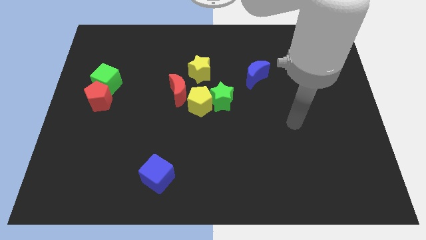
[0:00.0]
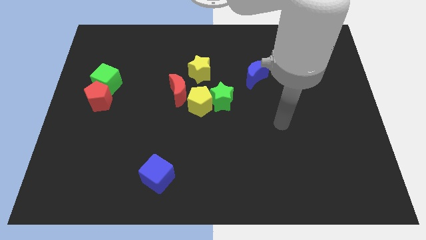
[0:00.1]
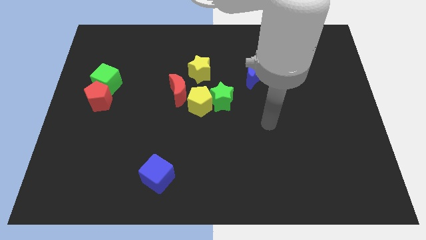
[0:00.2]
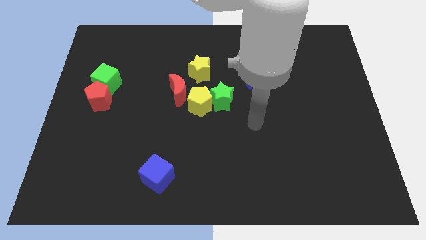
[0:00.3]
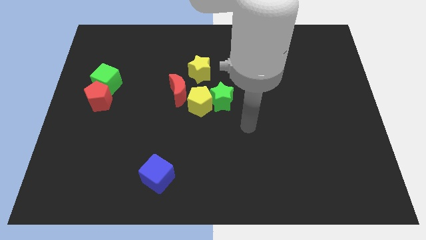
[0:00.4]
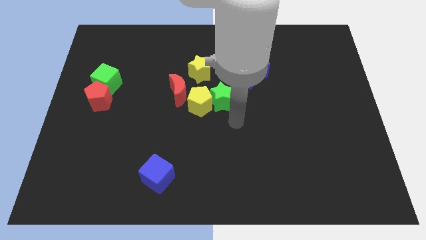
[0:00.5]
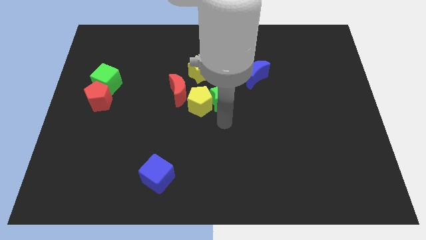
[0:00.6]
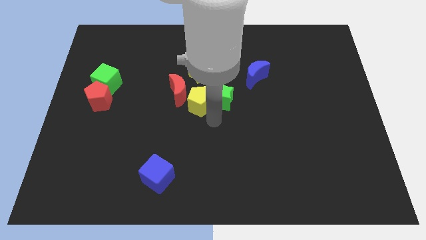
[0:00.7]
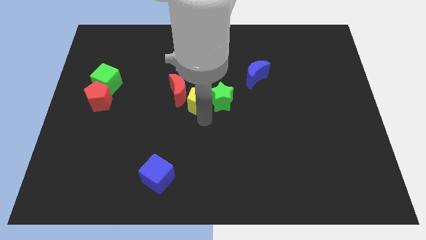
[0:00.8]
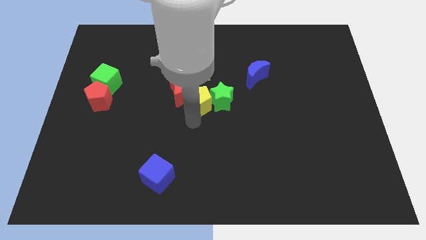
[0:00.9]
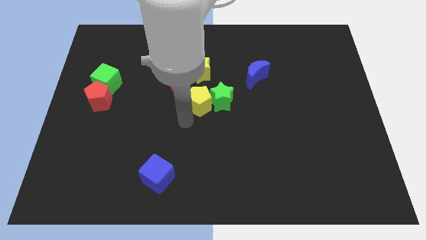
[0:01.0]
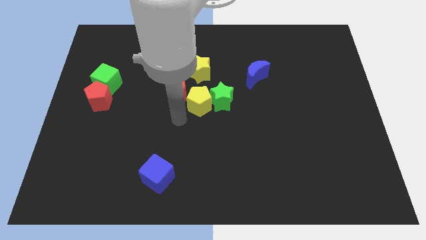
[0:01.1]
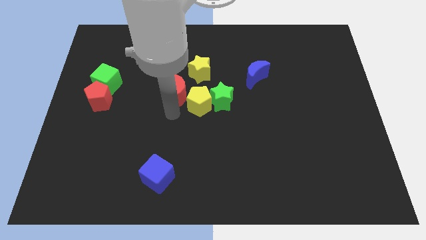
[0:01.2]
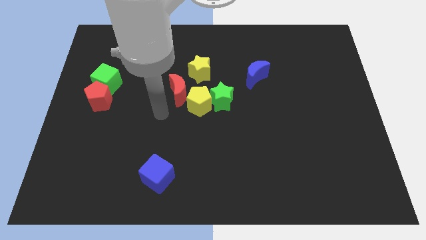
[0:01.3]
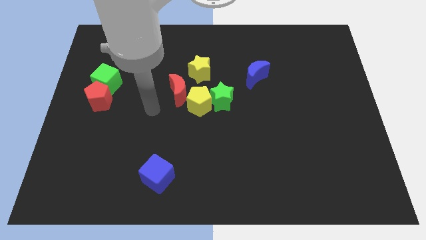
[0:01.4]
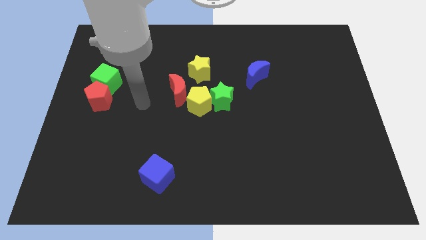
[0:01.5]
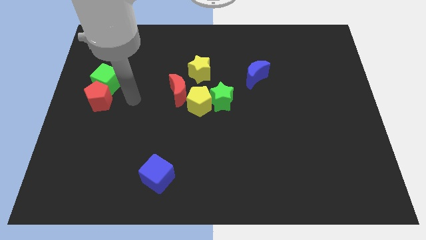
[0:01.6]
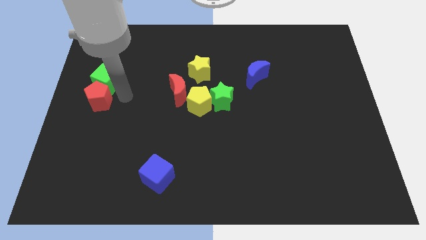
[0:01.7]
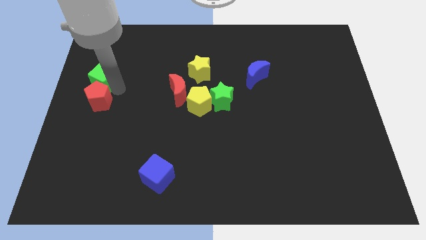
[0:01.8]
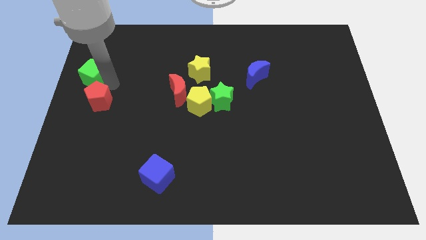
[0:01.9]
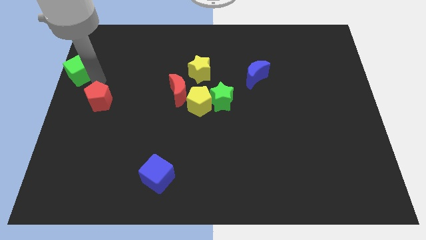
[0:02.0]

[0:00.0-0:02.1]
separate the red pentagon from the green cube

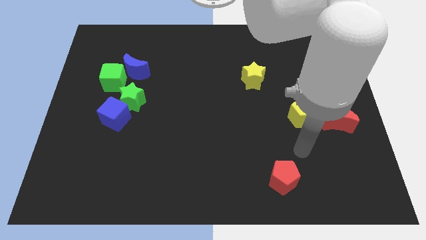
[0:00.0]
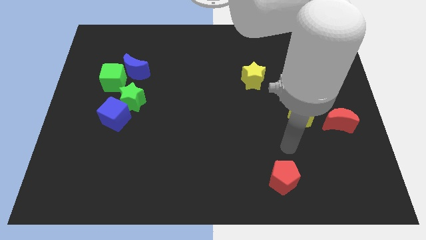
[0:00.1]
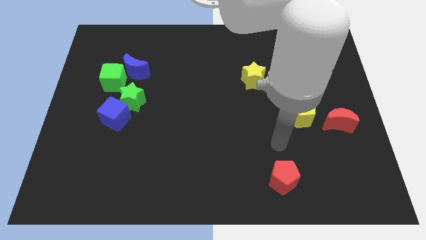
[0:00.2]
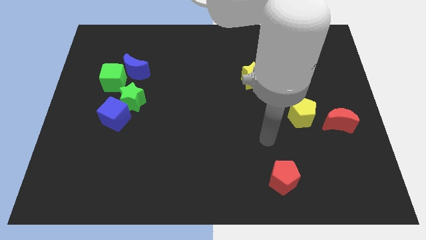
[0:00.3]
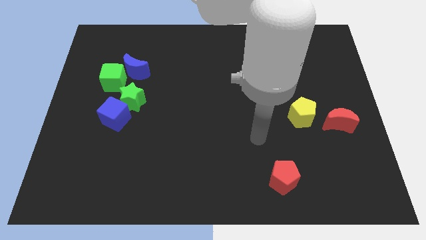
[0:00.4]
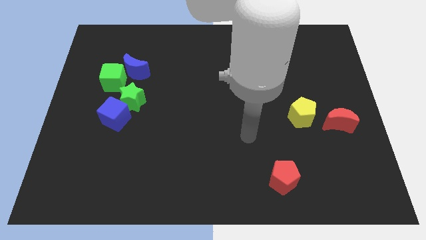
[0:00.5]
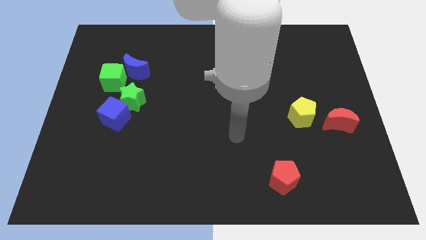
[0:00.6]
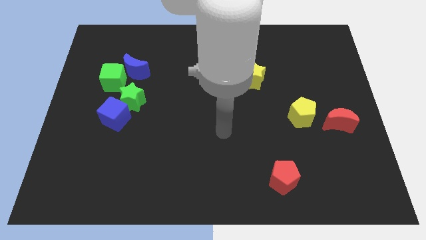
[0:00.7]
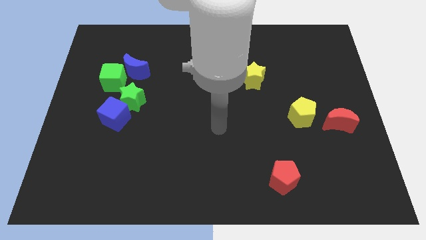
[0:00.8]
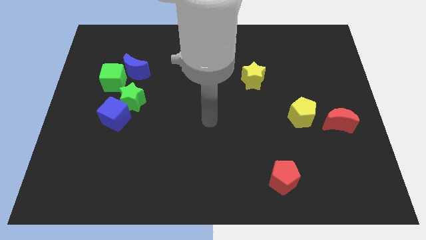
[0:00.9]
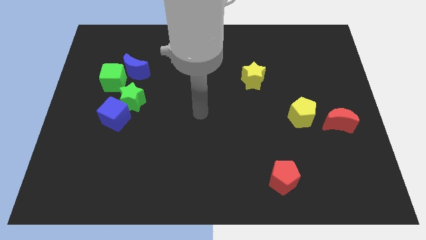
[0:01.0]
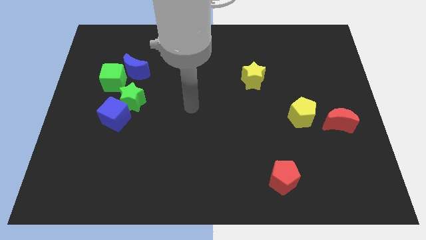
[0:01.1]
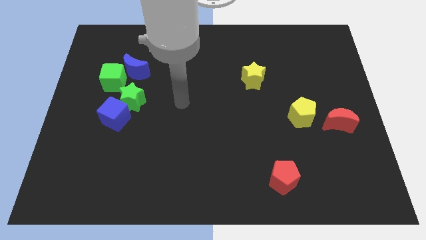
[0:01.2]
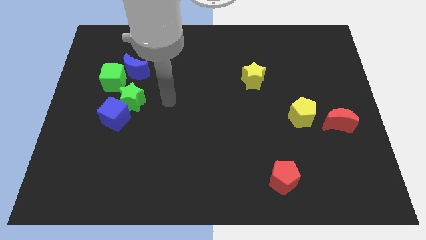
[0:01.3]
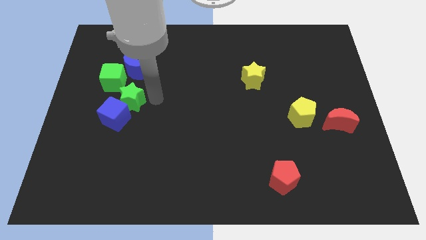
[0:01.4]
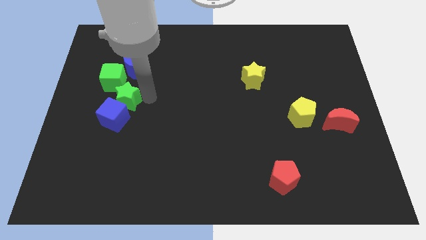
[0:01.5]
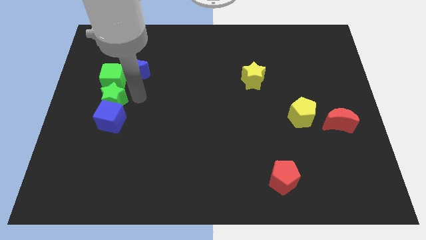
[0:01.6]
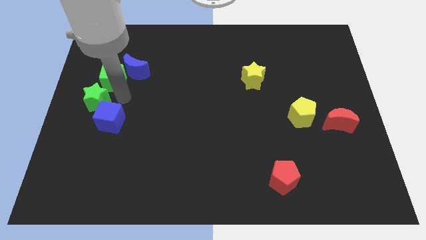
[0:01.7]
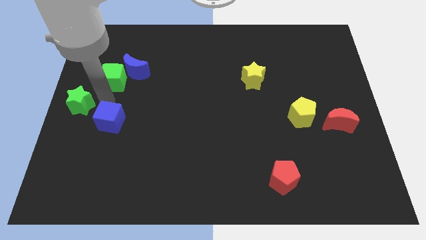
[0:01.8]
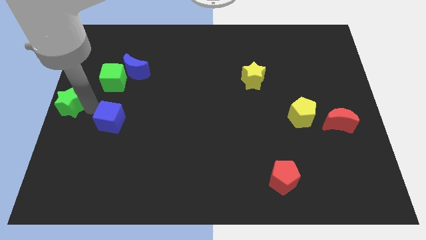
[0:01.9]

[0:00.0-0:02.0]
move the blue cube away from the green star

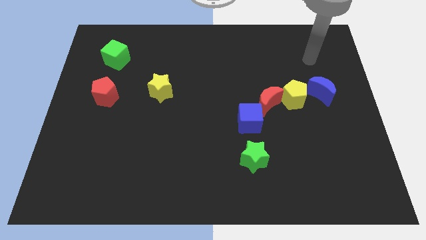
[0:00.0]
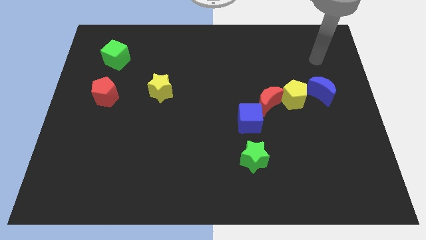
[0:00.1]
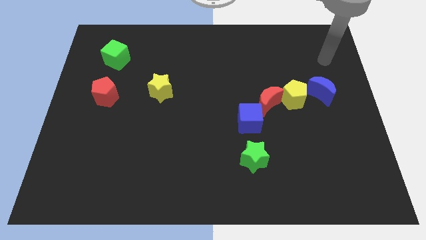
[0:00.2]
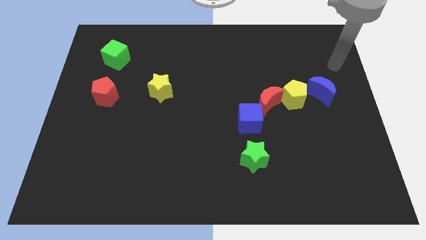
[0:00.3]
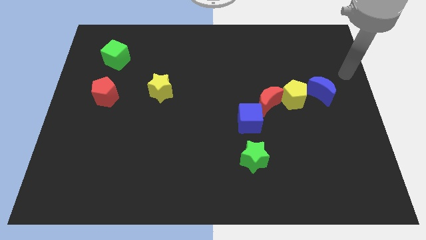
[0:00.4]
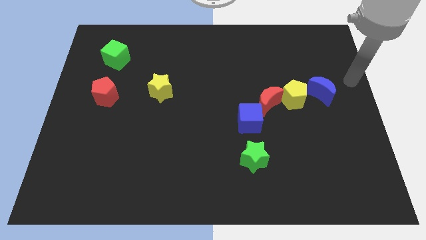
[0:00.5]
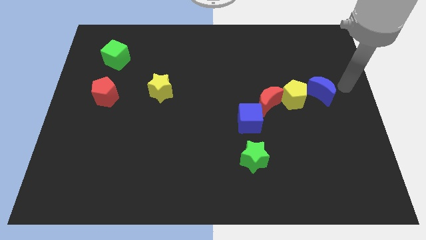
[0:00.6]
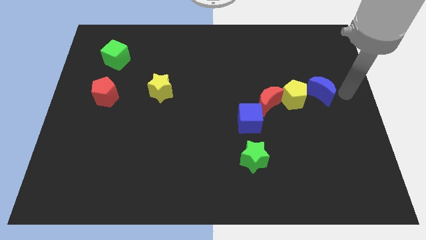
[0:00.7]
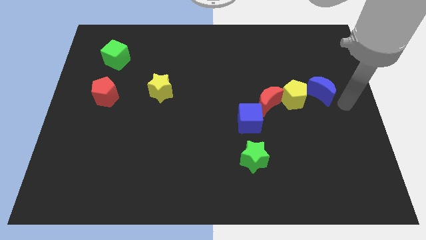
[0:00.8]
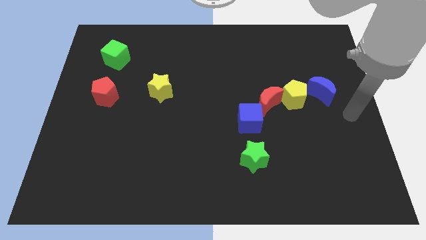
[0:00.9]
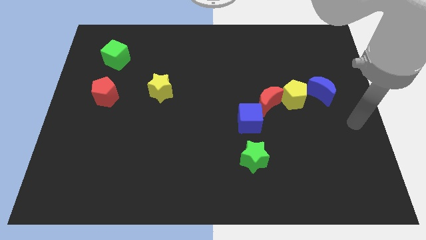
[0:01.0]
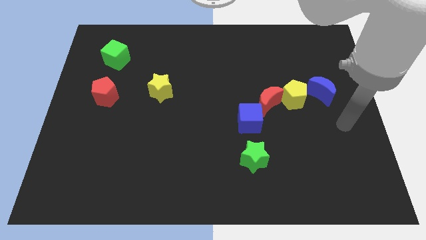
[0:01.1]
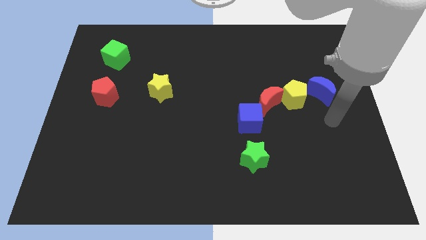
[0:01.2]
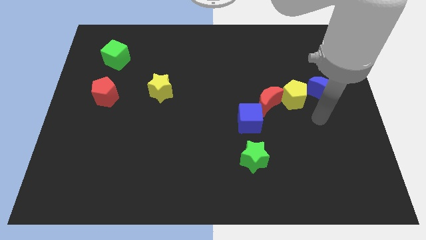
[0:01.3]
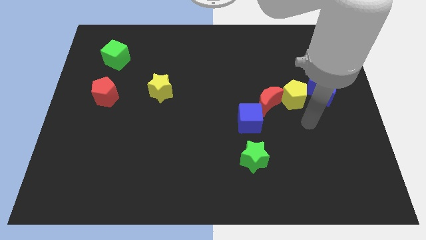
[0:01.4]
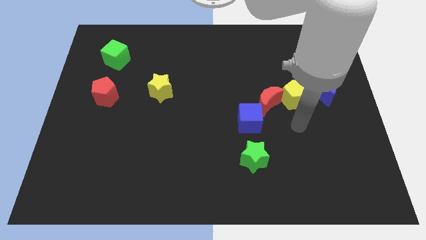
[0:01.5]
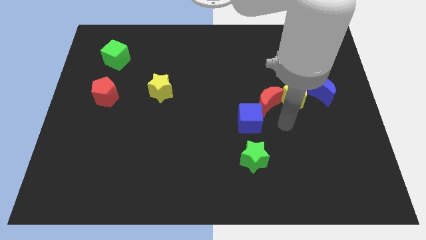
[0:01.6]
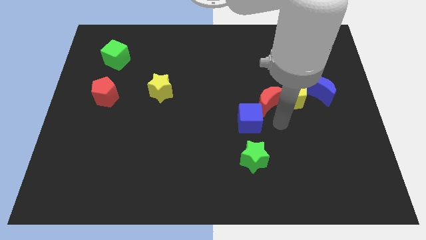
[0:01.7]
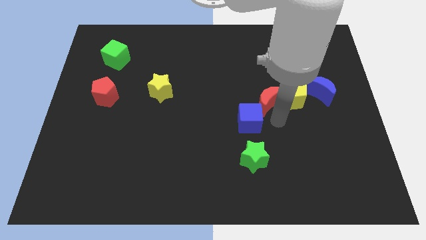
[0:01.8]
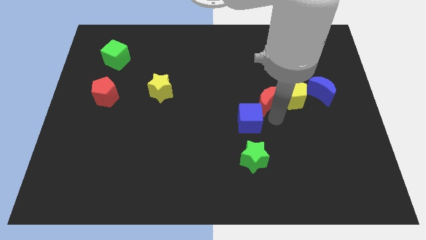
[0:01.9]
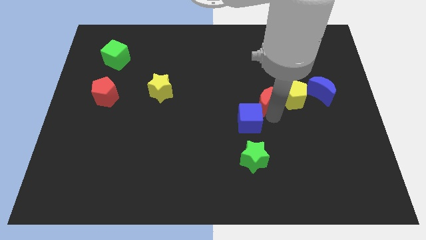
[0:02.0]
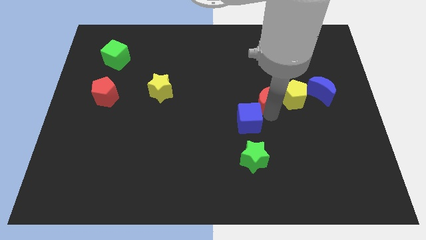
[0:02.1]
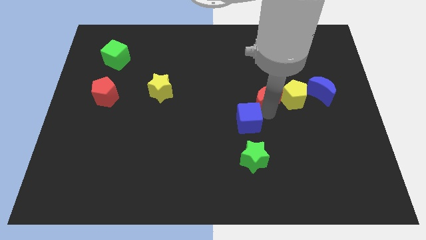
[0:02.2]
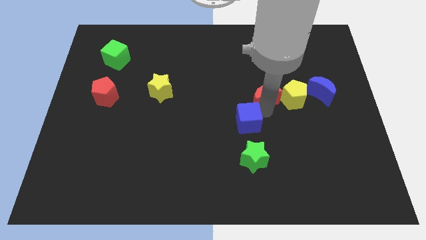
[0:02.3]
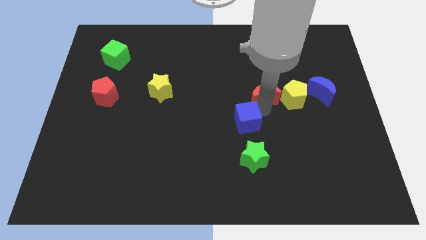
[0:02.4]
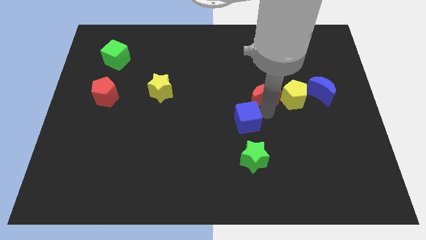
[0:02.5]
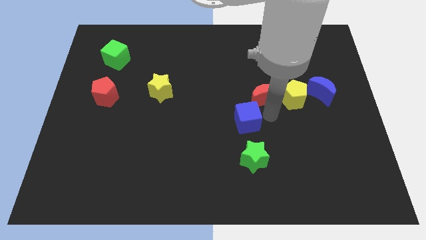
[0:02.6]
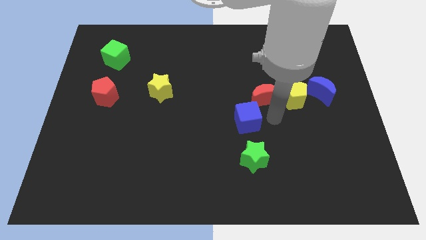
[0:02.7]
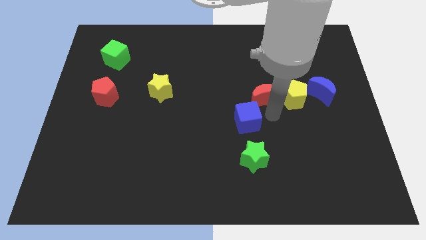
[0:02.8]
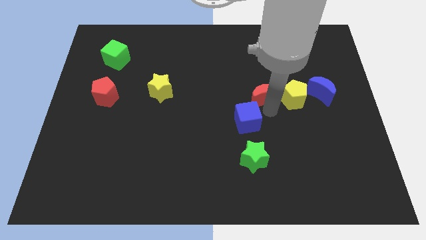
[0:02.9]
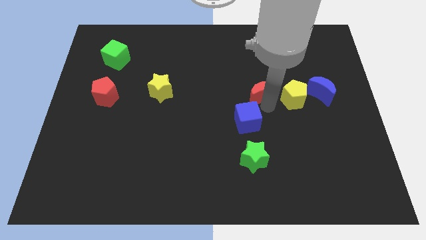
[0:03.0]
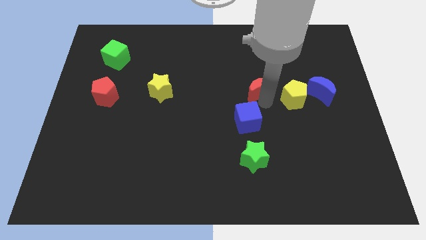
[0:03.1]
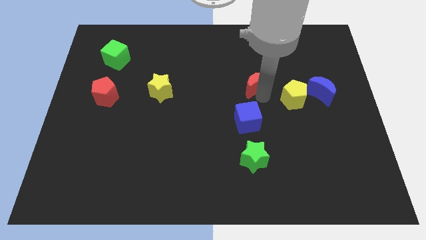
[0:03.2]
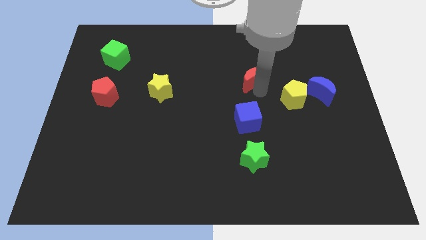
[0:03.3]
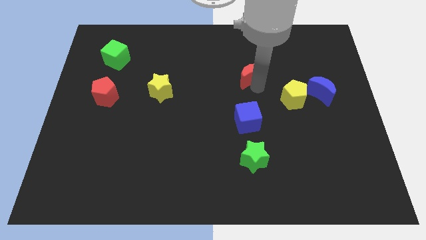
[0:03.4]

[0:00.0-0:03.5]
move the red moon away from the yellow pentagon and blue cube

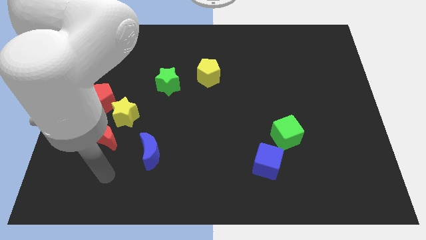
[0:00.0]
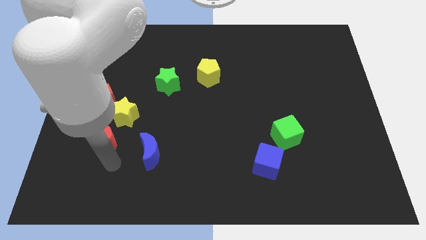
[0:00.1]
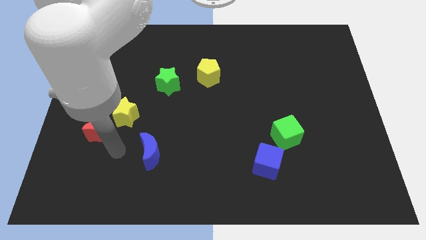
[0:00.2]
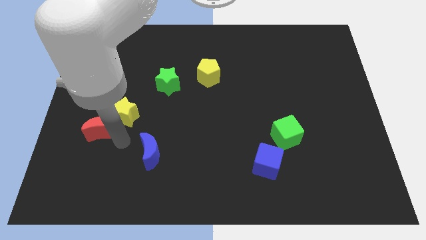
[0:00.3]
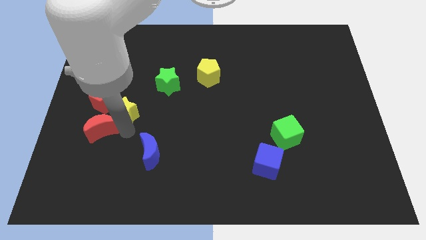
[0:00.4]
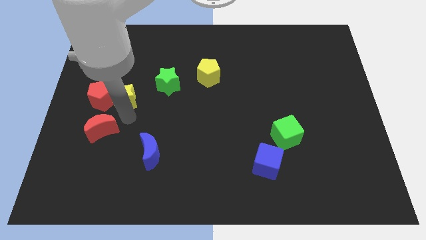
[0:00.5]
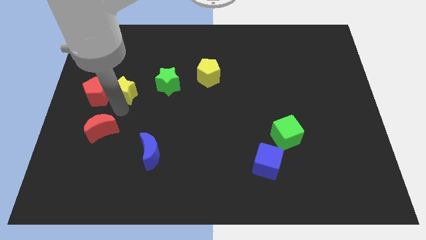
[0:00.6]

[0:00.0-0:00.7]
move the red moon away from the yellow star

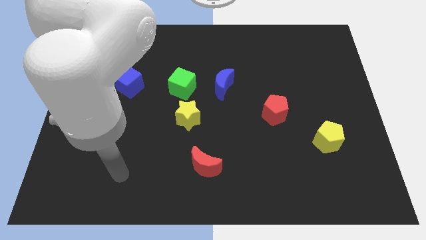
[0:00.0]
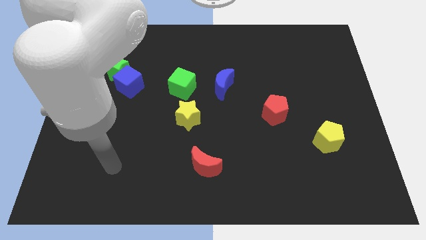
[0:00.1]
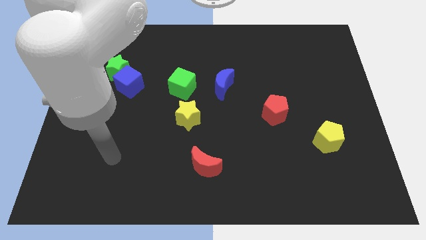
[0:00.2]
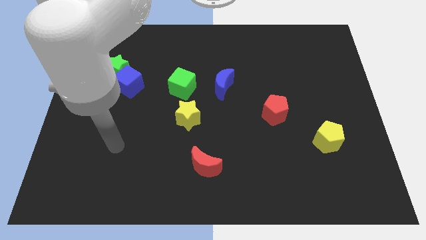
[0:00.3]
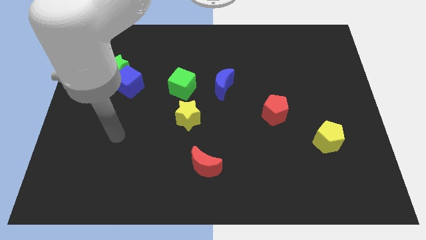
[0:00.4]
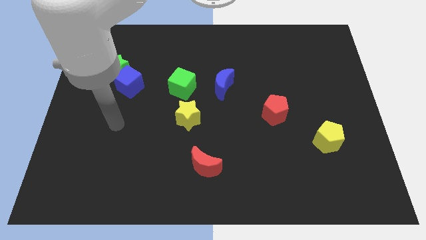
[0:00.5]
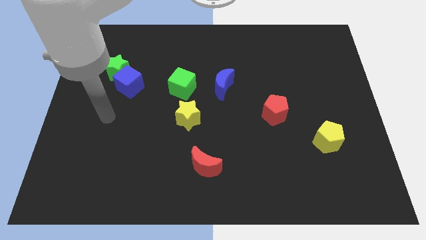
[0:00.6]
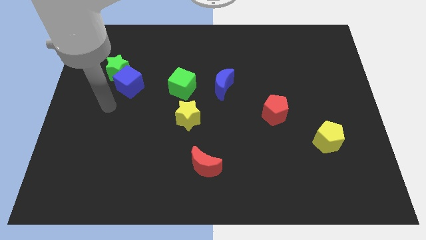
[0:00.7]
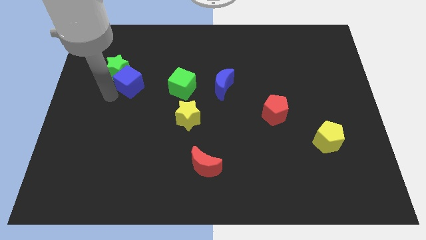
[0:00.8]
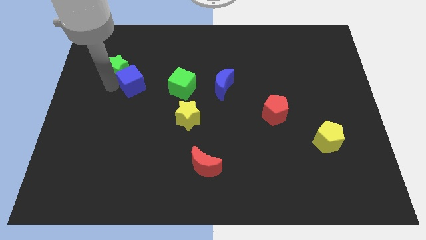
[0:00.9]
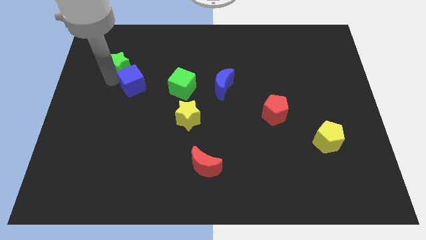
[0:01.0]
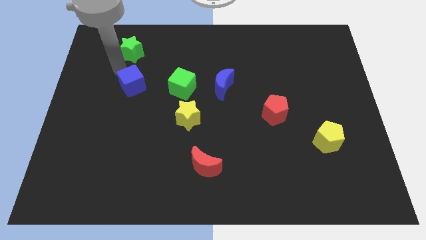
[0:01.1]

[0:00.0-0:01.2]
pull the blue cube apart from the green star
